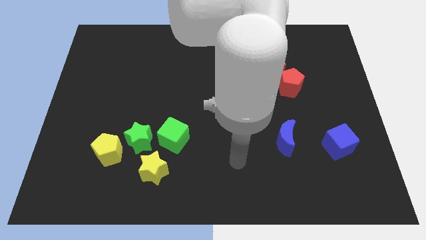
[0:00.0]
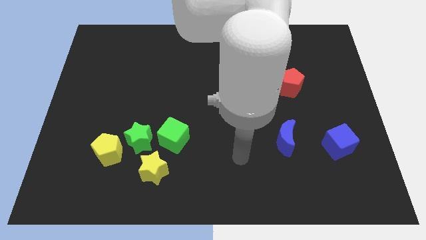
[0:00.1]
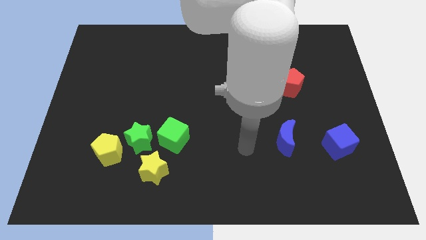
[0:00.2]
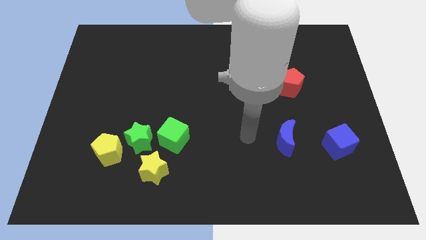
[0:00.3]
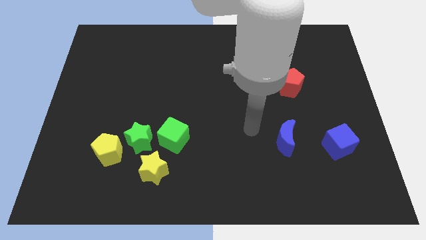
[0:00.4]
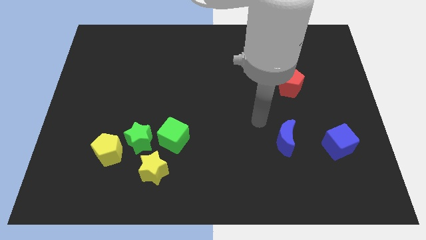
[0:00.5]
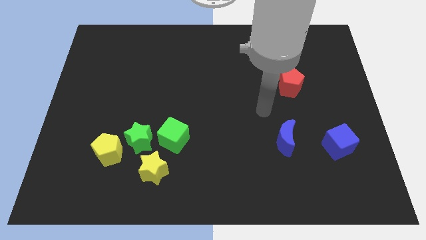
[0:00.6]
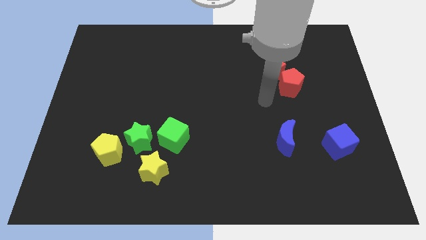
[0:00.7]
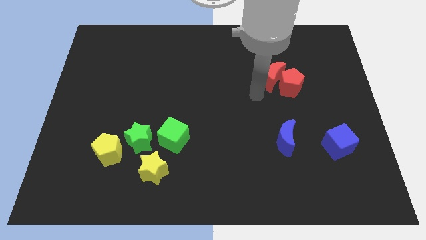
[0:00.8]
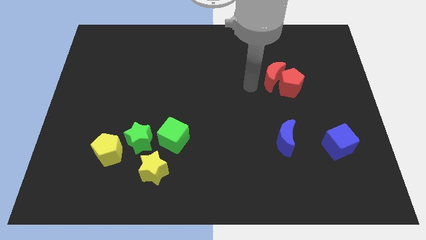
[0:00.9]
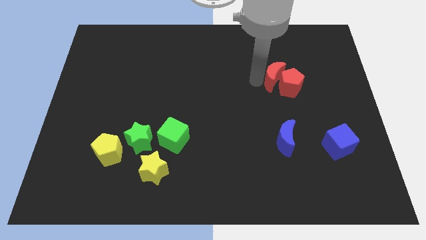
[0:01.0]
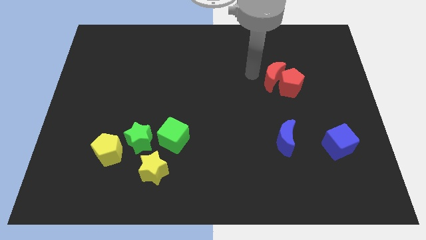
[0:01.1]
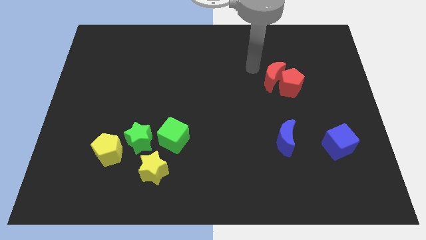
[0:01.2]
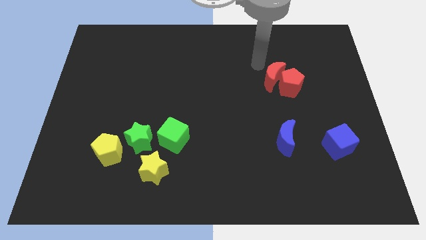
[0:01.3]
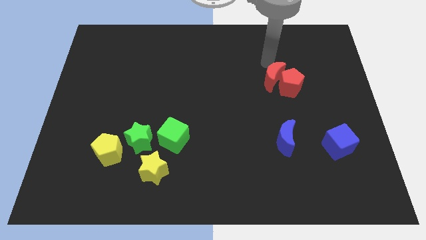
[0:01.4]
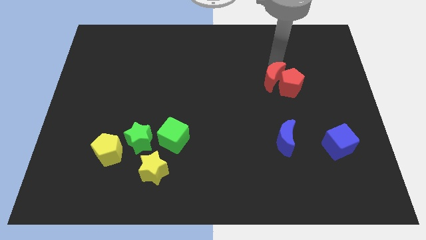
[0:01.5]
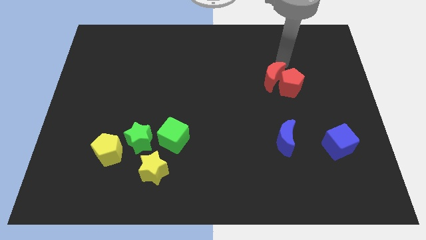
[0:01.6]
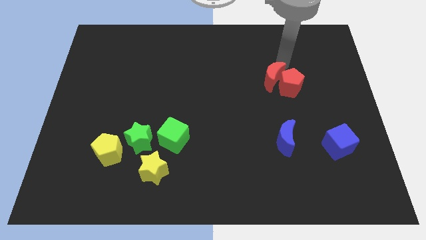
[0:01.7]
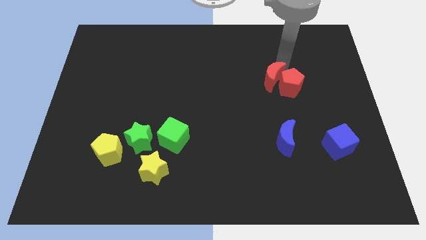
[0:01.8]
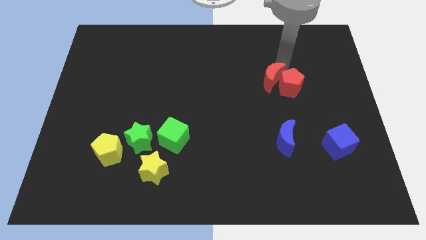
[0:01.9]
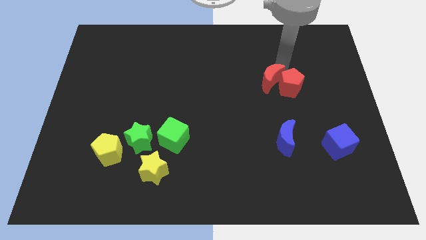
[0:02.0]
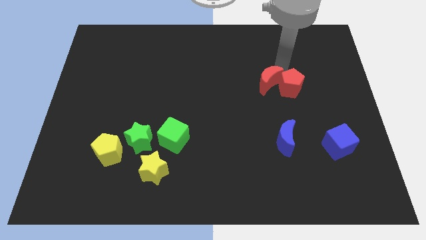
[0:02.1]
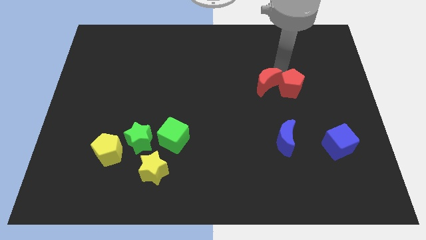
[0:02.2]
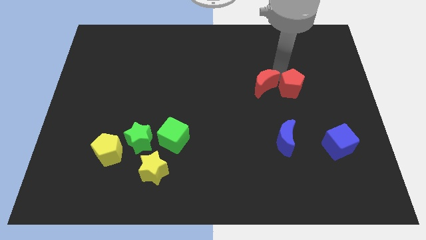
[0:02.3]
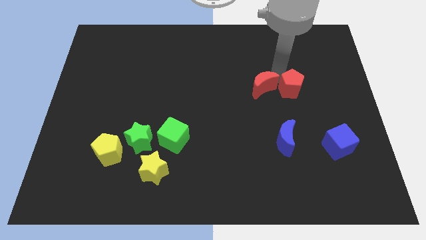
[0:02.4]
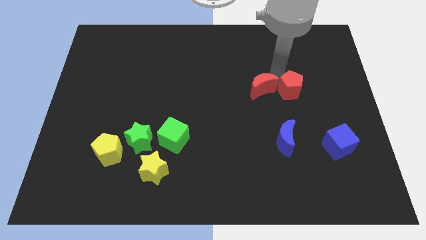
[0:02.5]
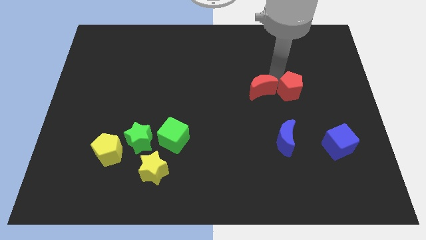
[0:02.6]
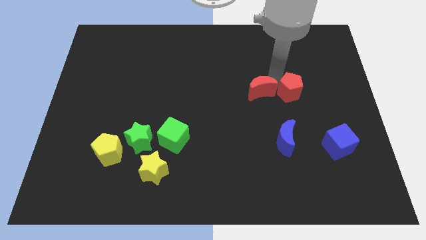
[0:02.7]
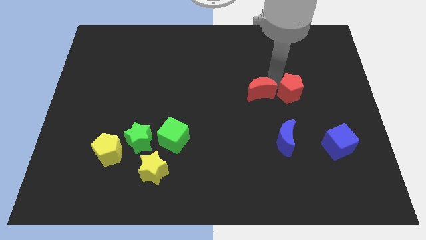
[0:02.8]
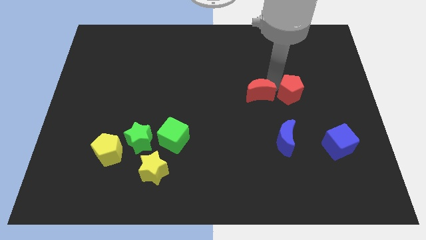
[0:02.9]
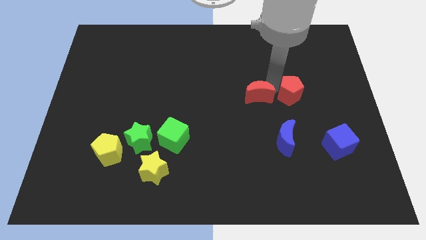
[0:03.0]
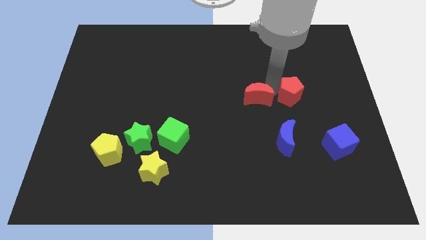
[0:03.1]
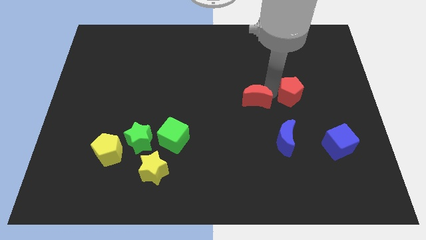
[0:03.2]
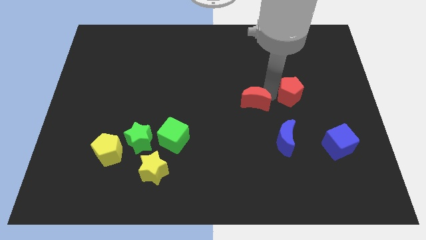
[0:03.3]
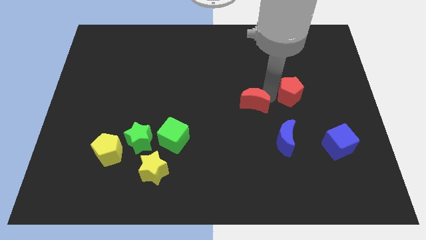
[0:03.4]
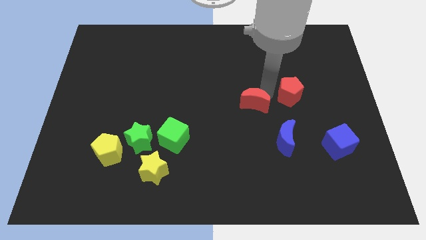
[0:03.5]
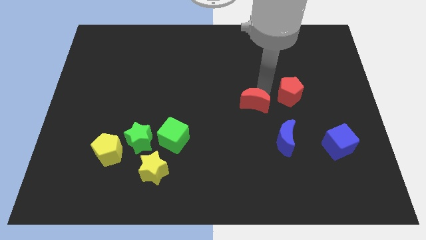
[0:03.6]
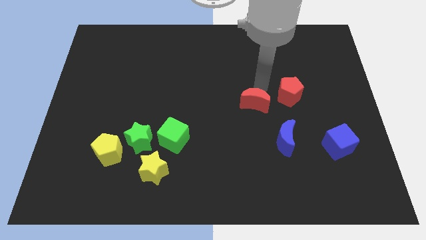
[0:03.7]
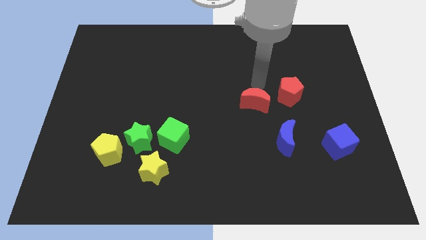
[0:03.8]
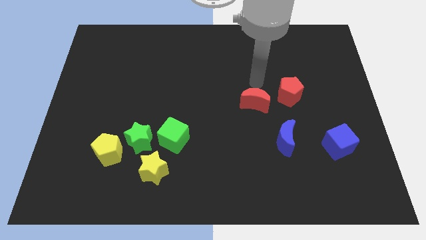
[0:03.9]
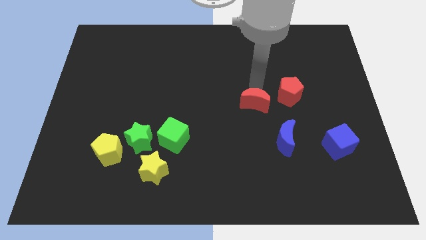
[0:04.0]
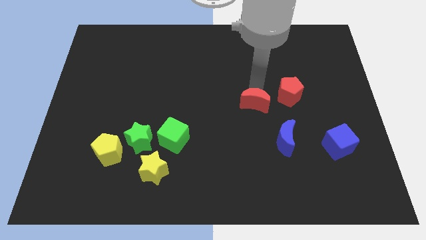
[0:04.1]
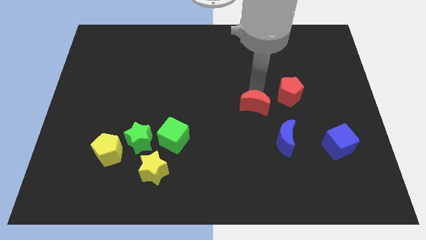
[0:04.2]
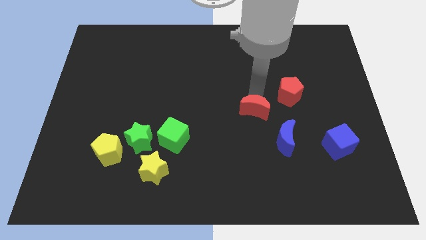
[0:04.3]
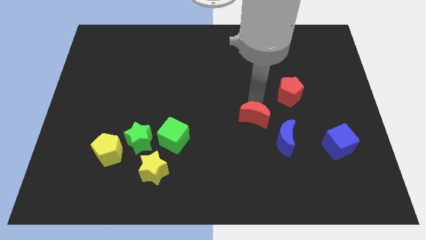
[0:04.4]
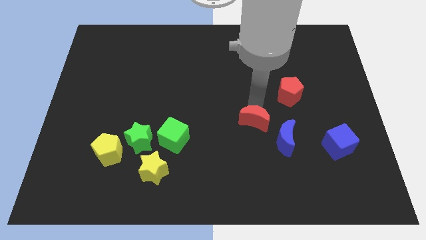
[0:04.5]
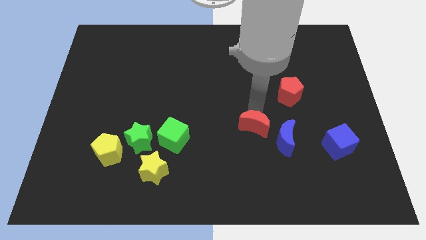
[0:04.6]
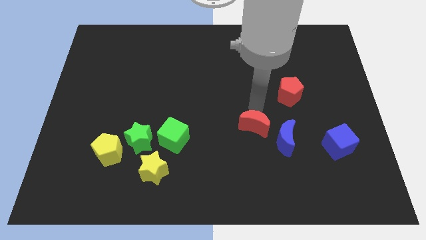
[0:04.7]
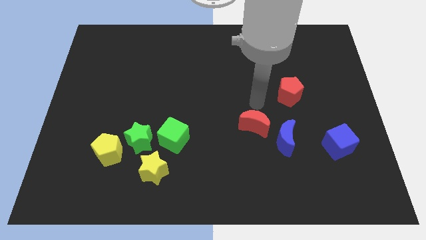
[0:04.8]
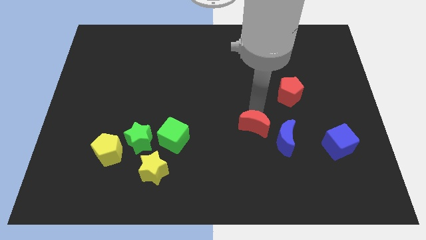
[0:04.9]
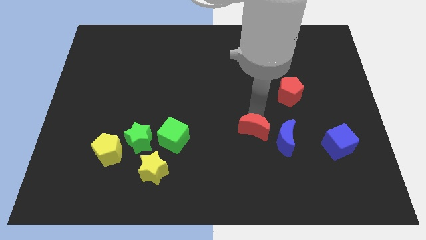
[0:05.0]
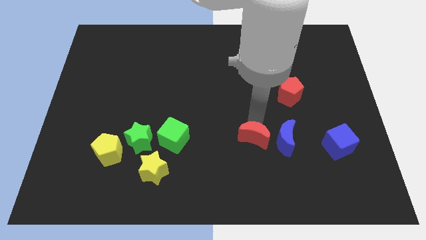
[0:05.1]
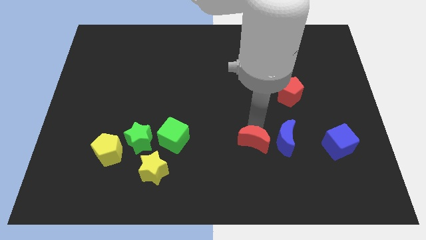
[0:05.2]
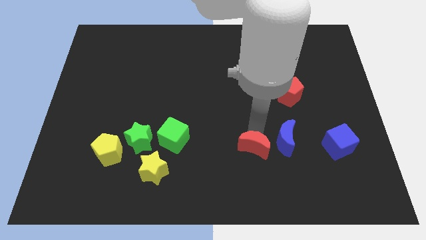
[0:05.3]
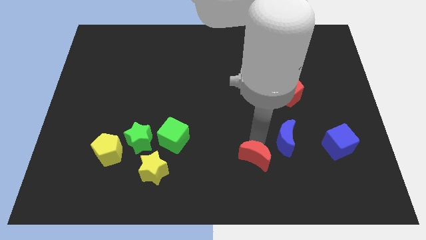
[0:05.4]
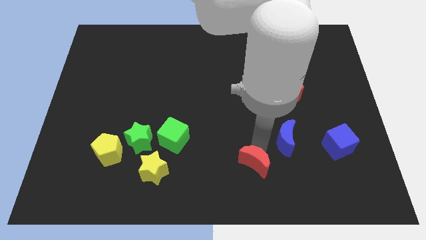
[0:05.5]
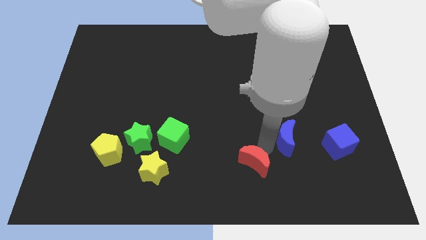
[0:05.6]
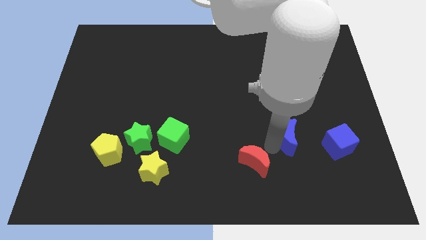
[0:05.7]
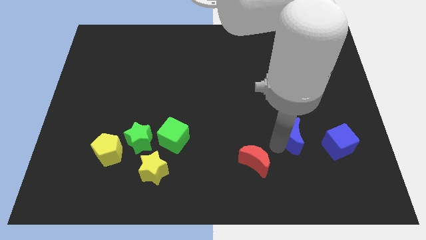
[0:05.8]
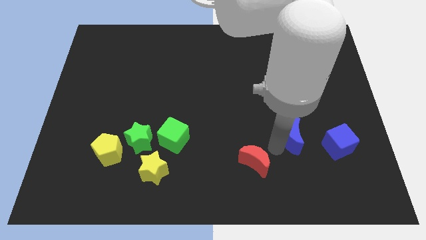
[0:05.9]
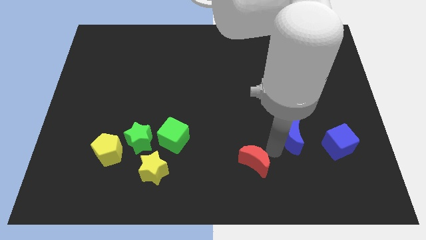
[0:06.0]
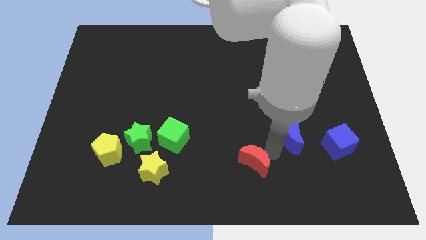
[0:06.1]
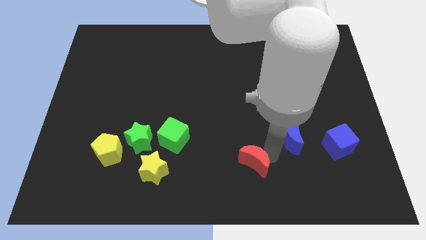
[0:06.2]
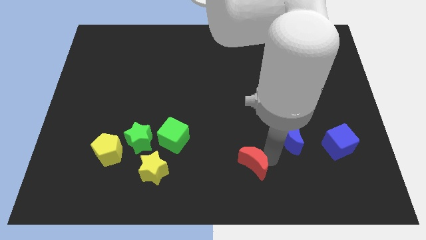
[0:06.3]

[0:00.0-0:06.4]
put the red moon to the bottom side
